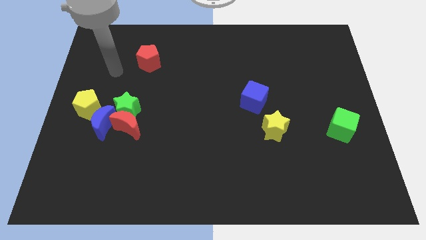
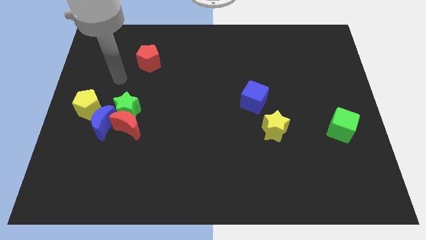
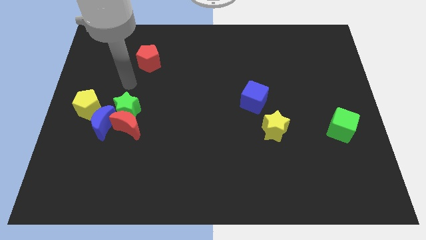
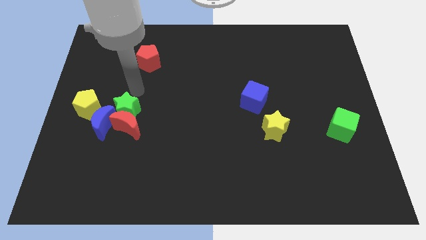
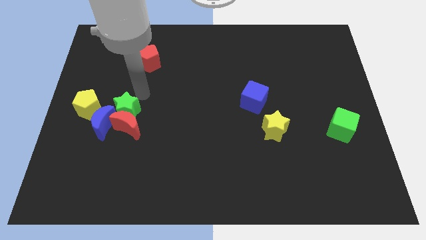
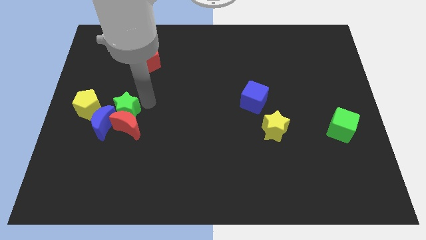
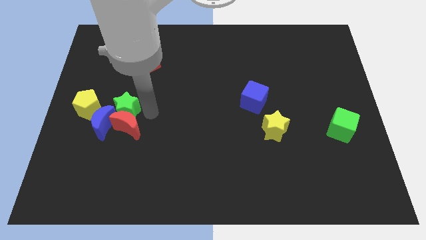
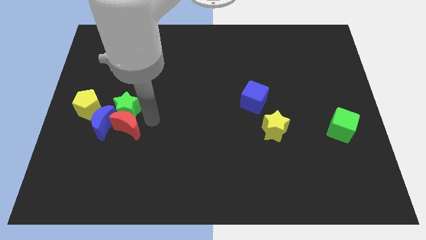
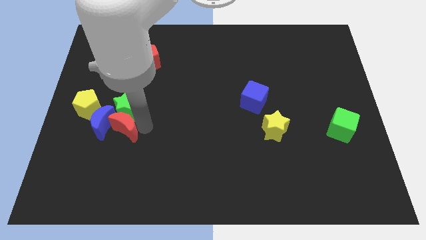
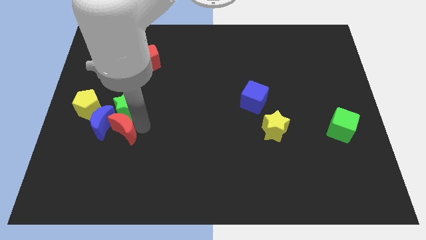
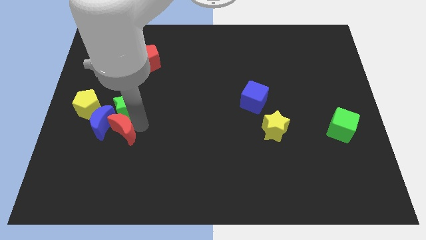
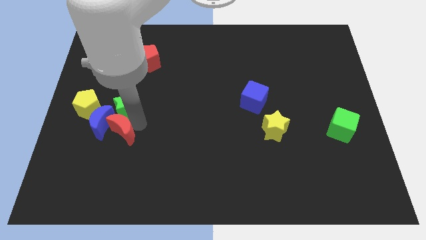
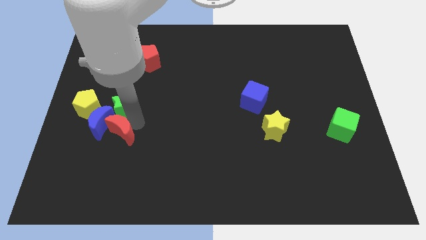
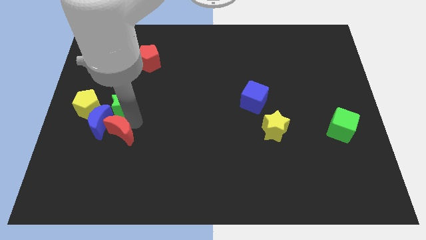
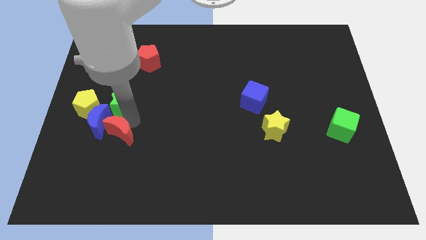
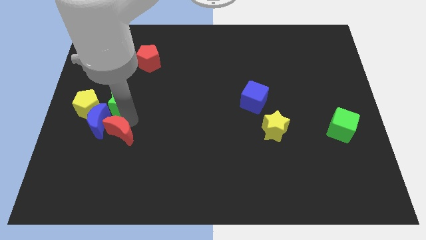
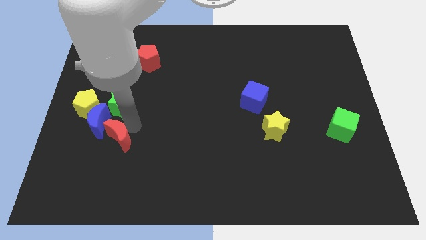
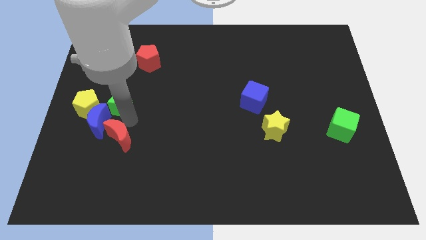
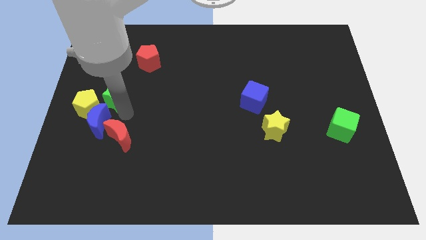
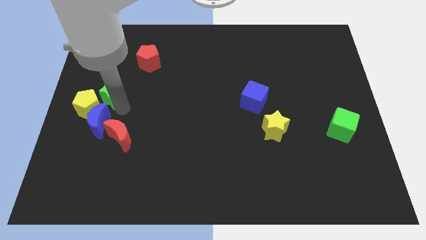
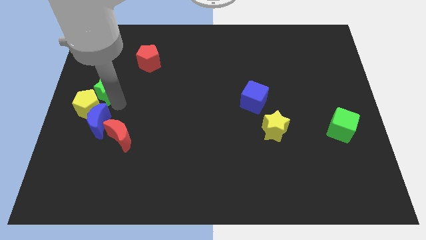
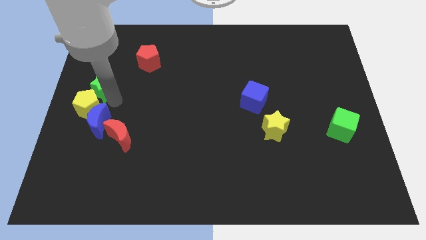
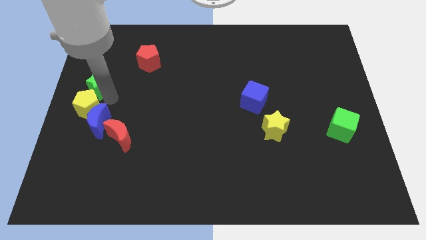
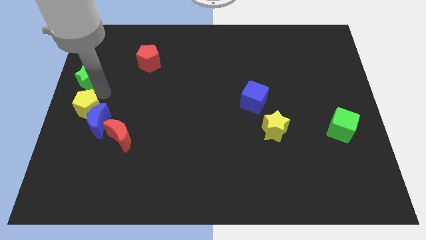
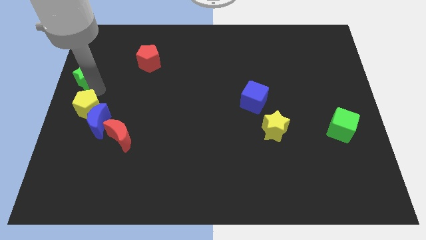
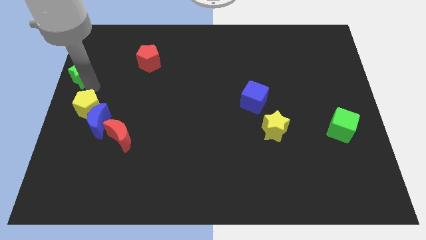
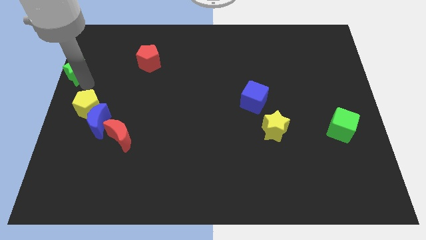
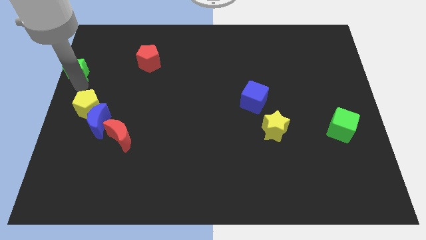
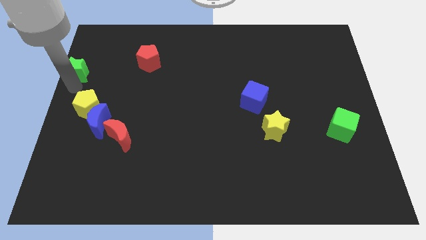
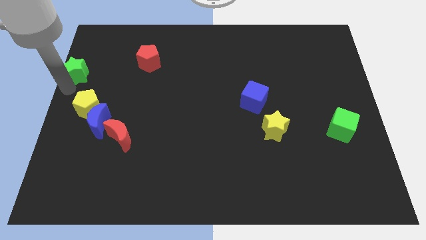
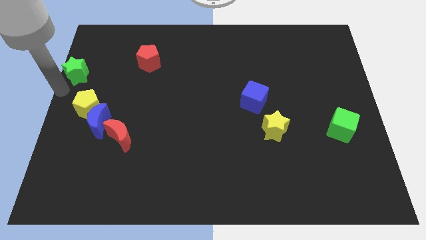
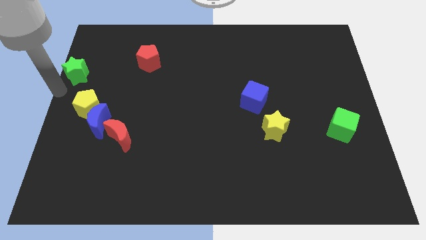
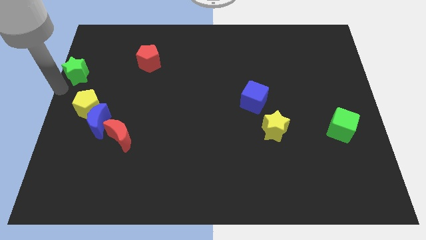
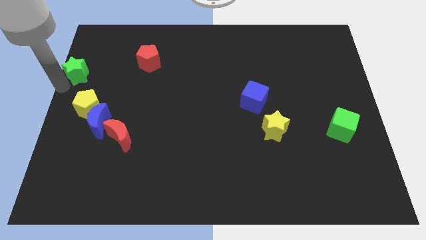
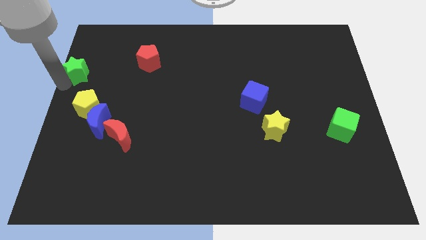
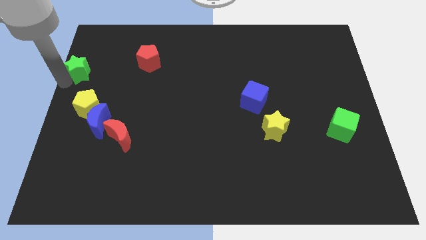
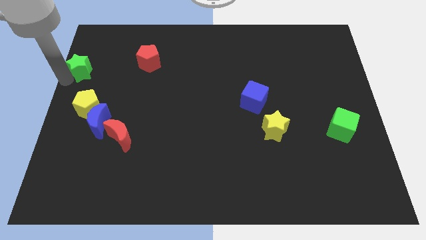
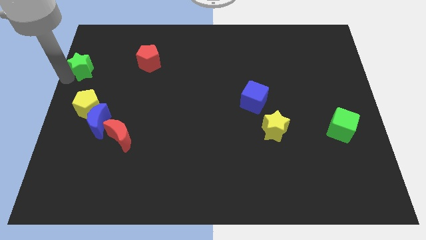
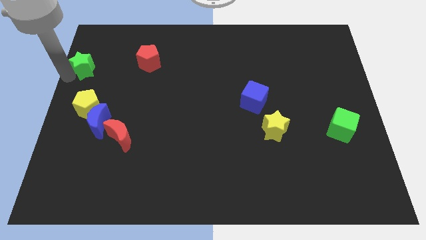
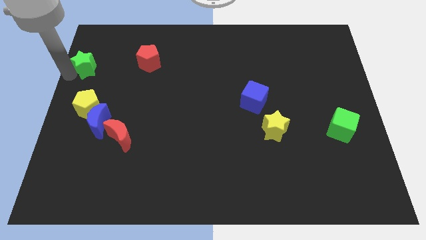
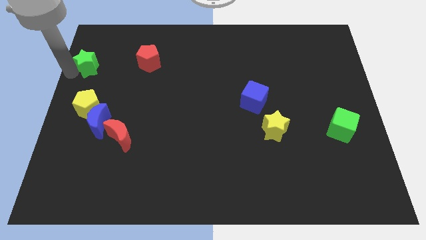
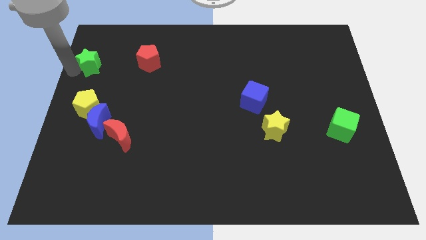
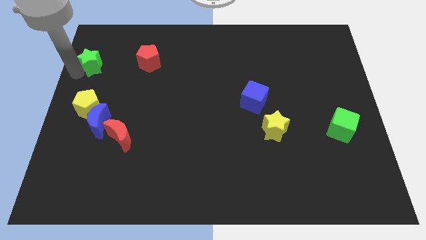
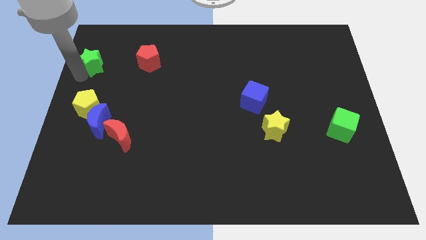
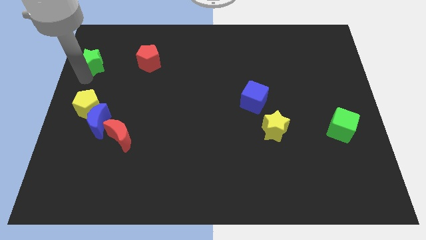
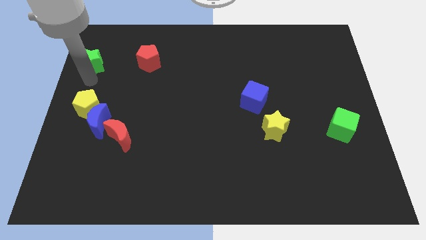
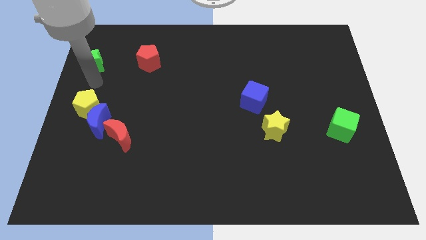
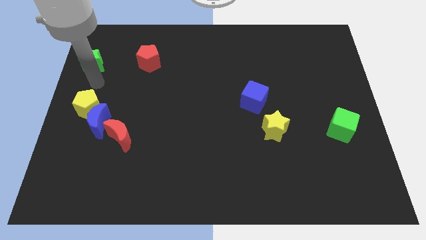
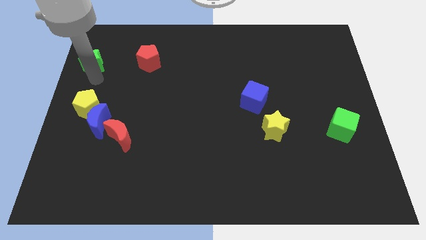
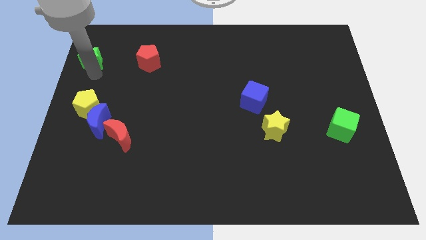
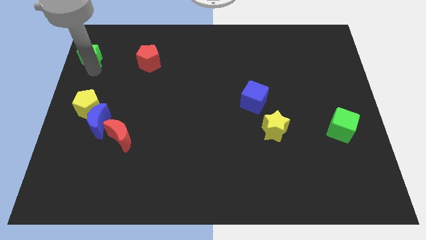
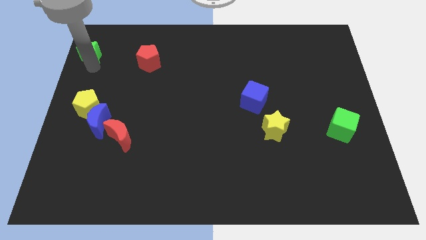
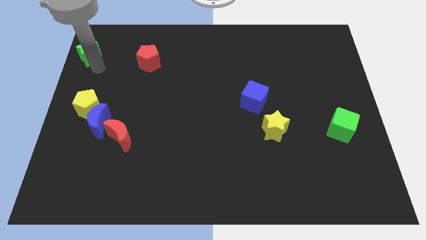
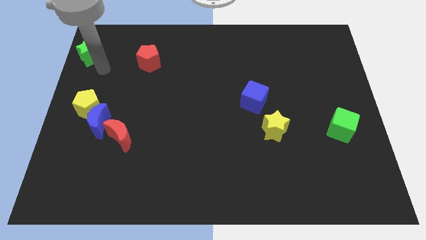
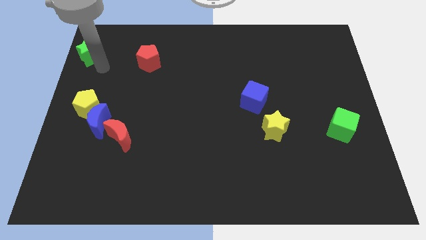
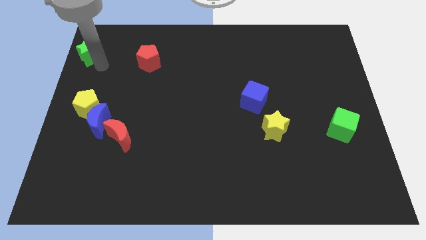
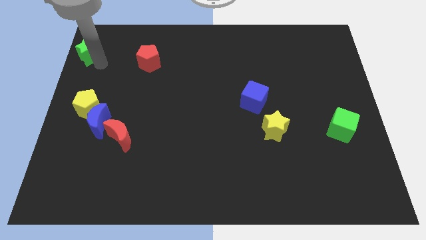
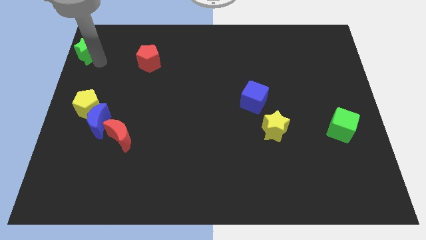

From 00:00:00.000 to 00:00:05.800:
push the green star to the top left

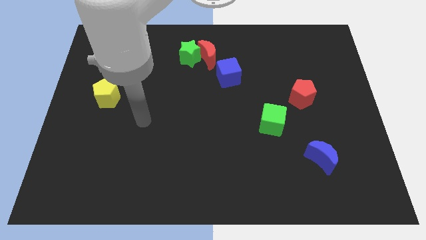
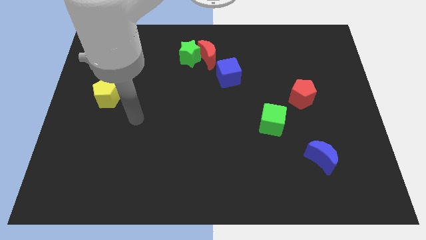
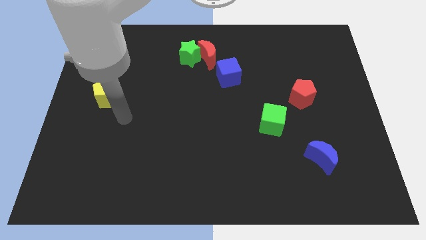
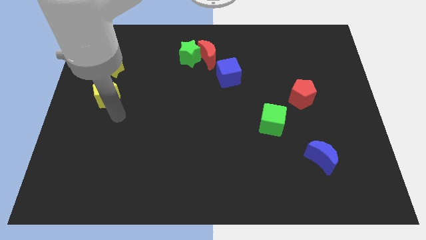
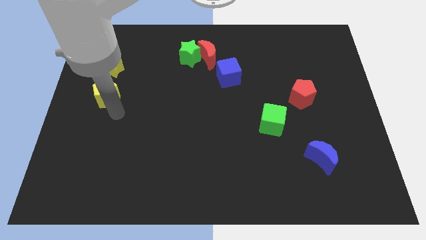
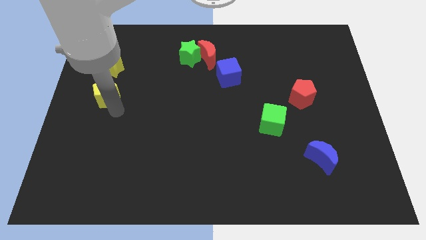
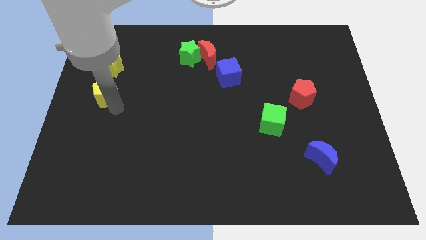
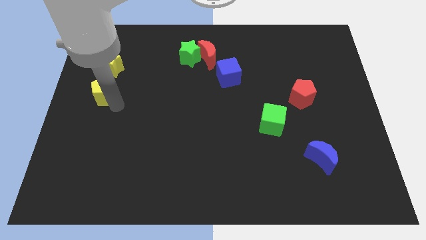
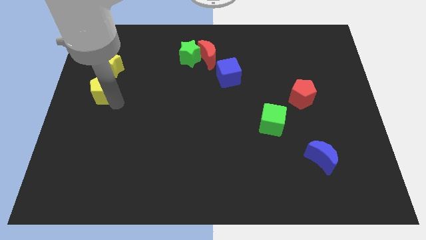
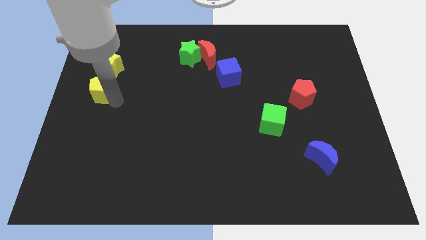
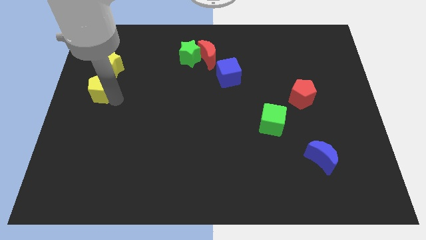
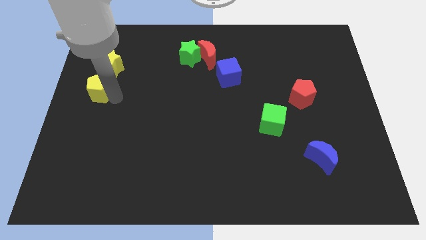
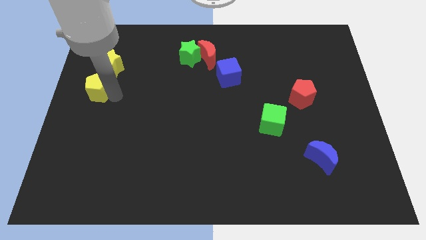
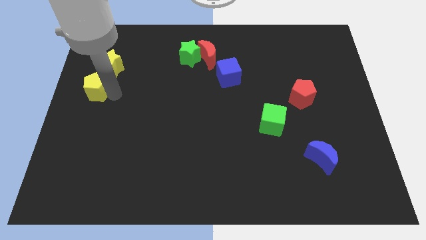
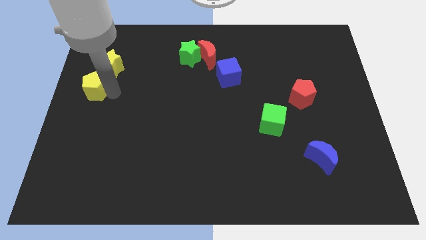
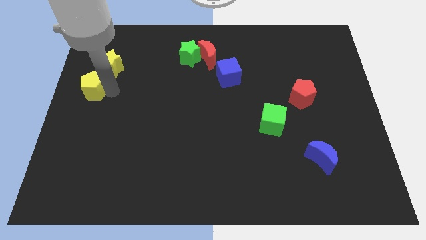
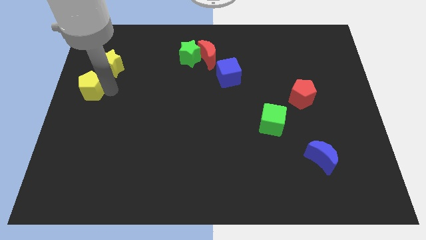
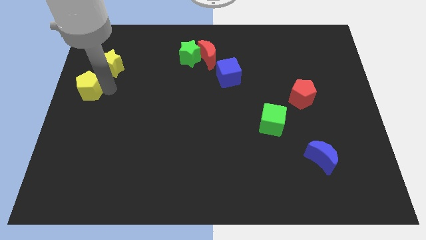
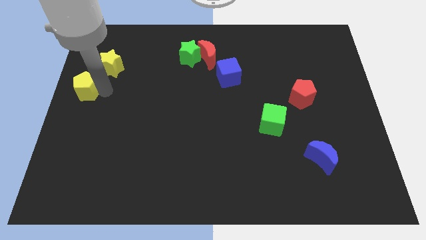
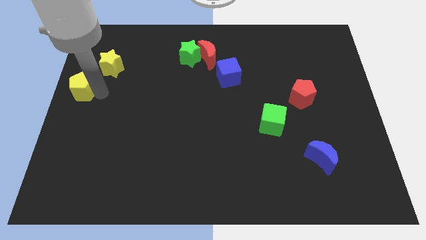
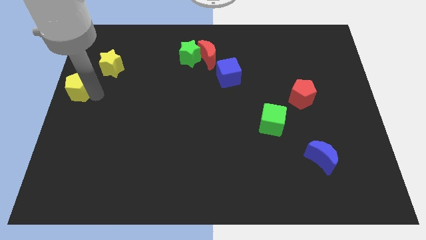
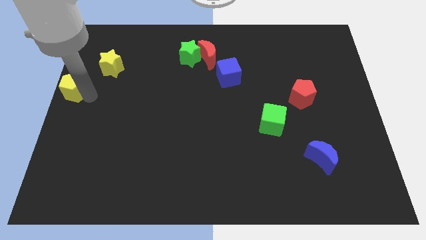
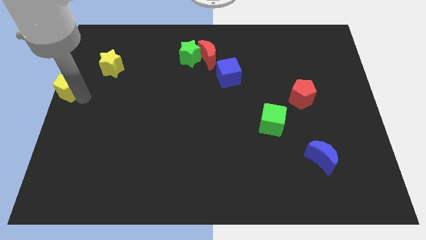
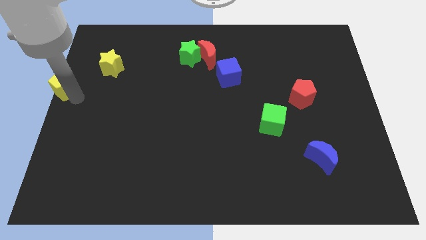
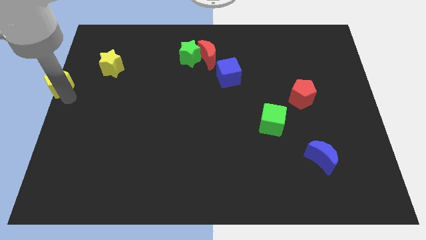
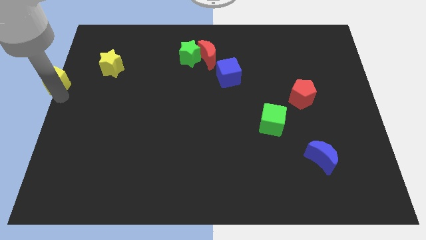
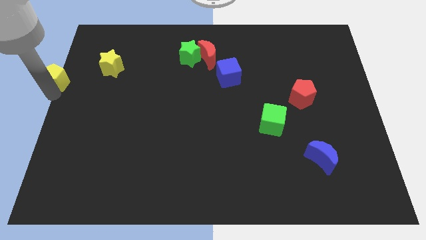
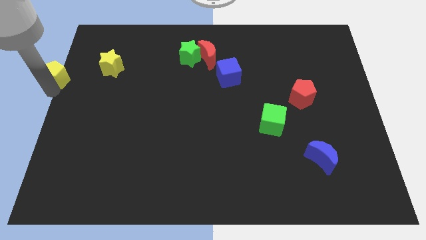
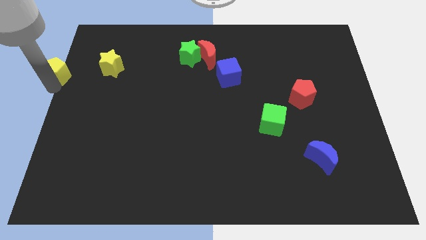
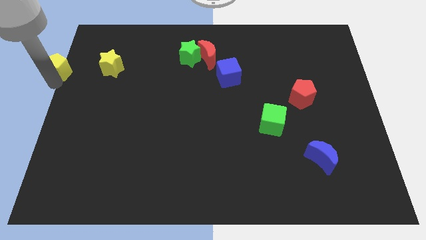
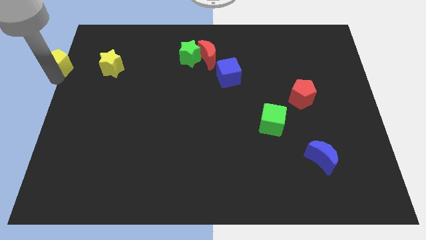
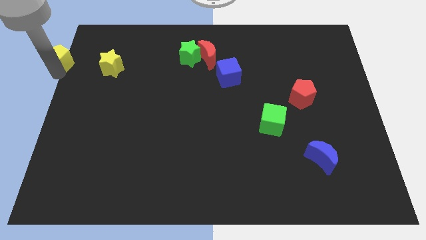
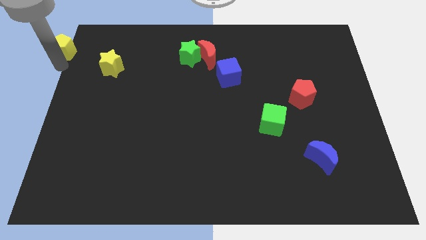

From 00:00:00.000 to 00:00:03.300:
put the yellow pentagon to the top left
